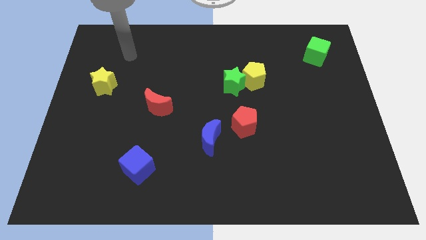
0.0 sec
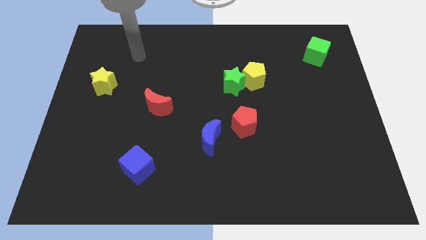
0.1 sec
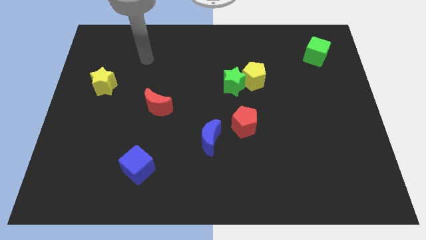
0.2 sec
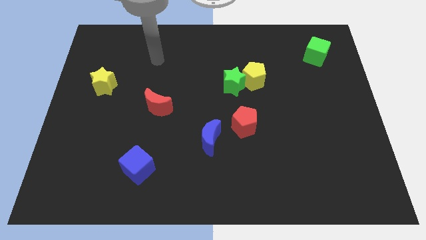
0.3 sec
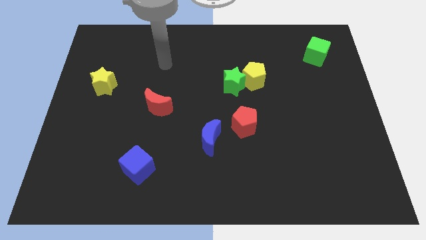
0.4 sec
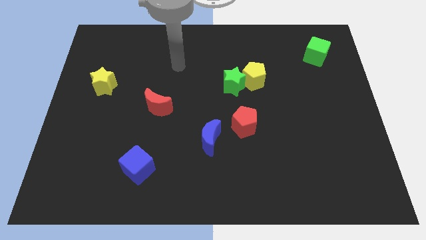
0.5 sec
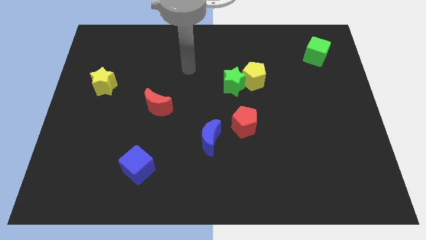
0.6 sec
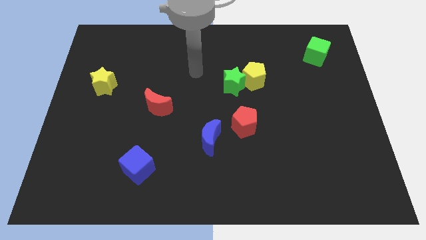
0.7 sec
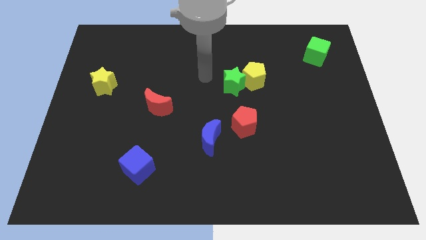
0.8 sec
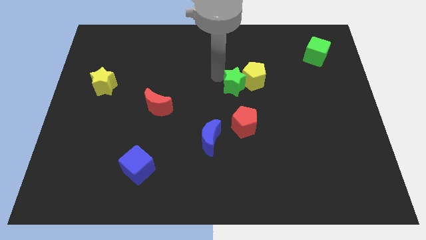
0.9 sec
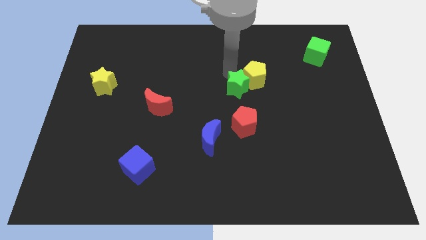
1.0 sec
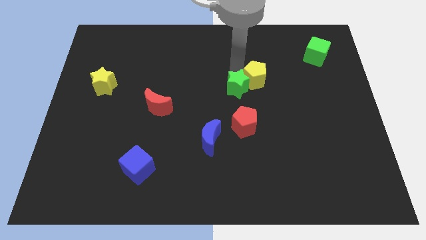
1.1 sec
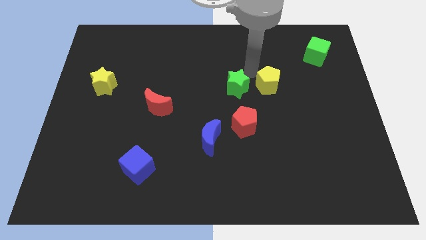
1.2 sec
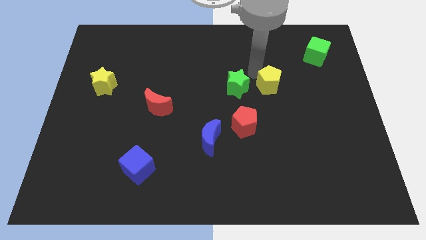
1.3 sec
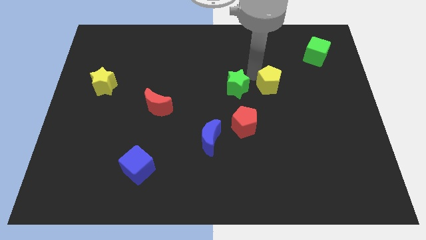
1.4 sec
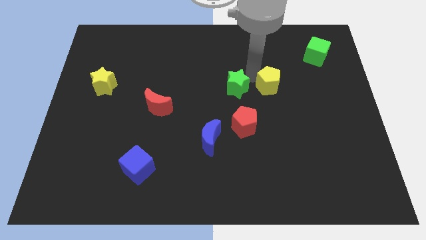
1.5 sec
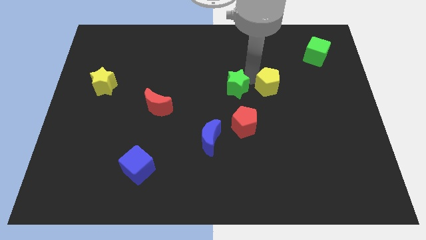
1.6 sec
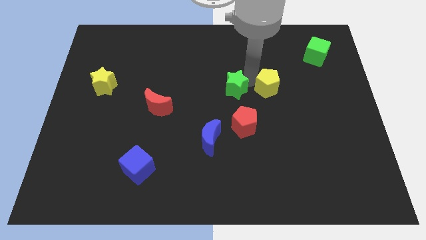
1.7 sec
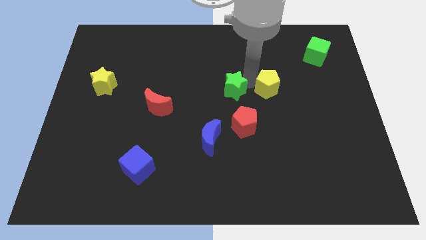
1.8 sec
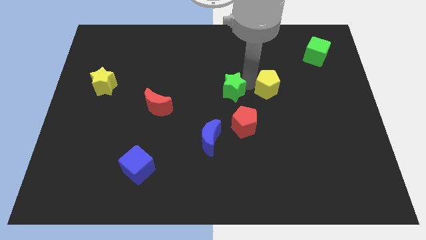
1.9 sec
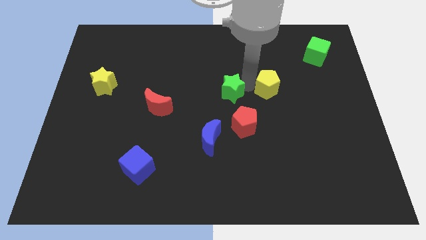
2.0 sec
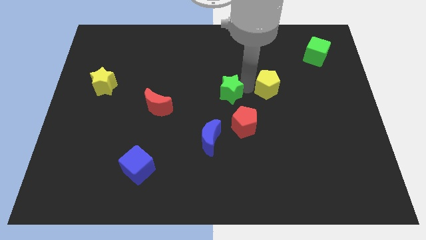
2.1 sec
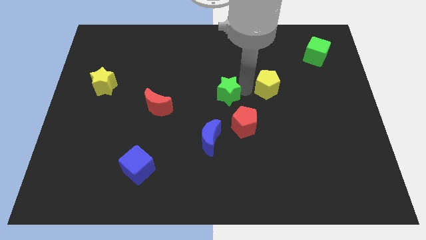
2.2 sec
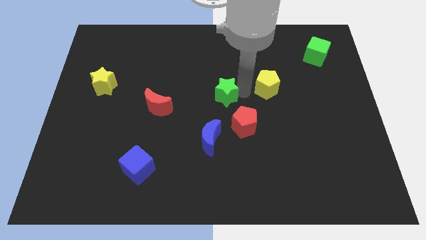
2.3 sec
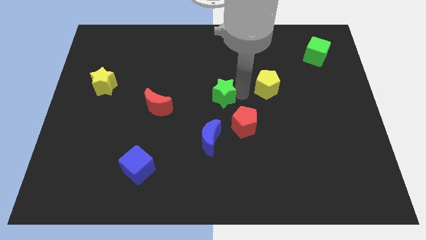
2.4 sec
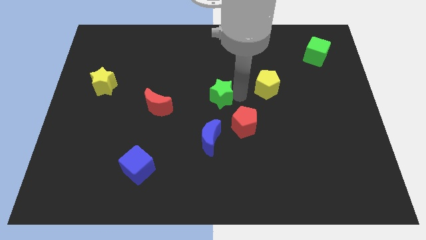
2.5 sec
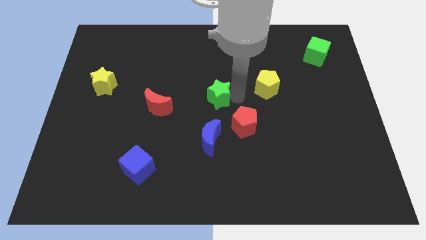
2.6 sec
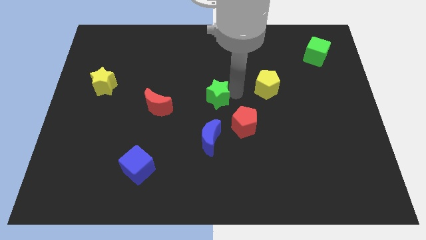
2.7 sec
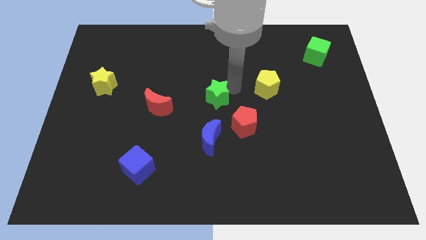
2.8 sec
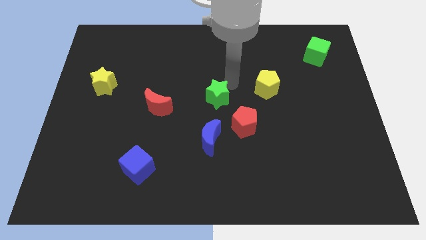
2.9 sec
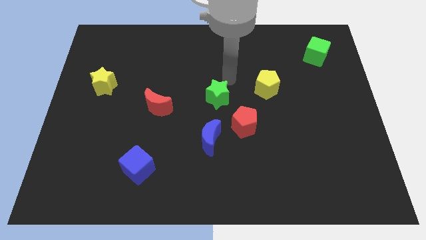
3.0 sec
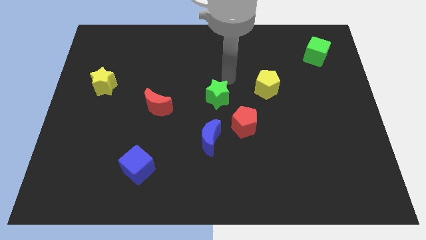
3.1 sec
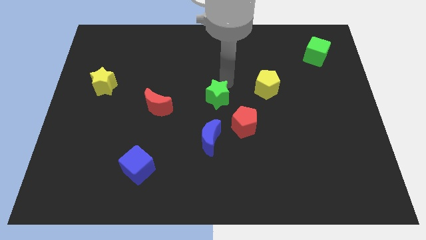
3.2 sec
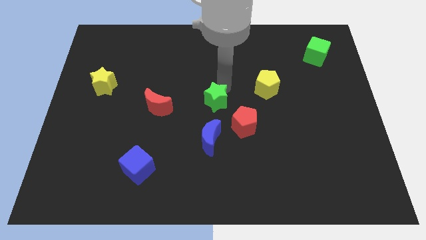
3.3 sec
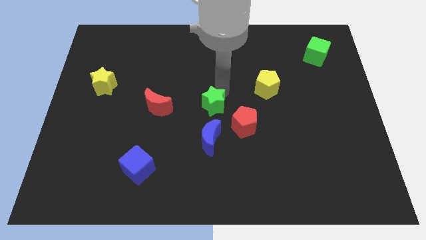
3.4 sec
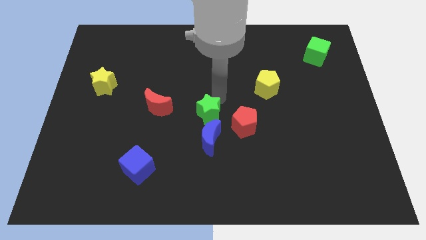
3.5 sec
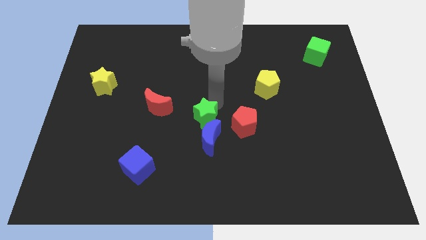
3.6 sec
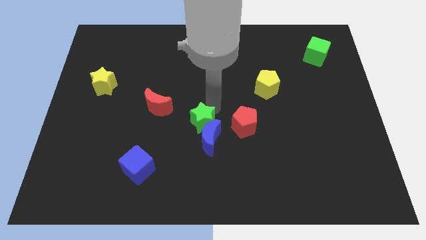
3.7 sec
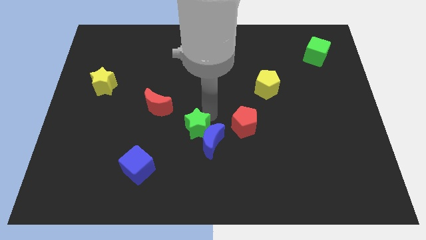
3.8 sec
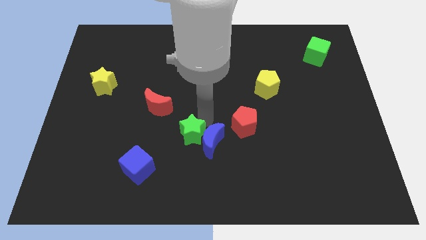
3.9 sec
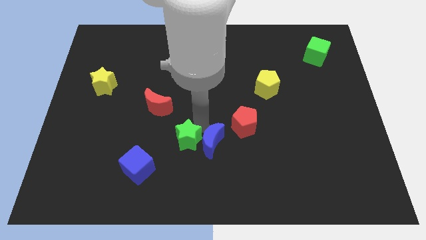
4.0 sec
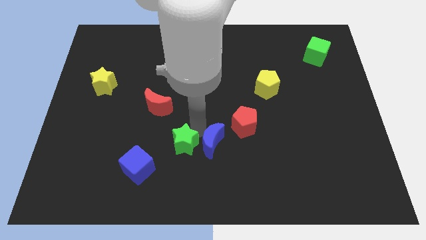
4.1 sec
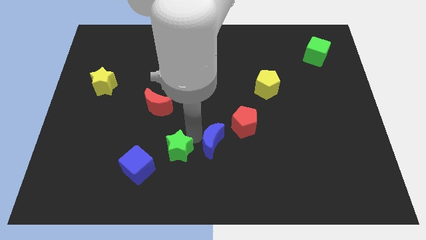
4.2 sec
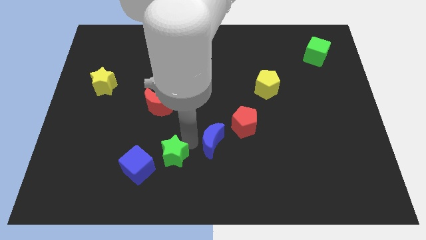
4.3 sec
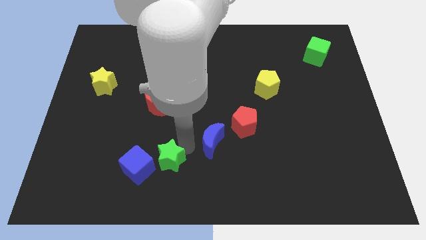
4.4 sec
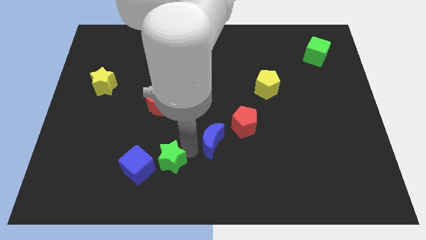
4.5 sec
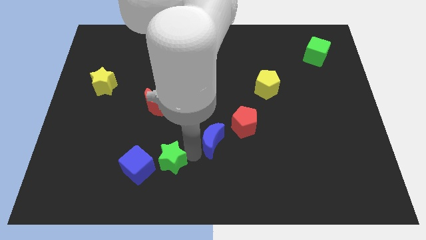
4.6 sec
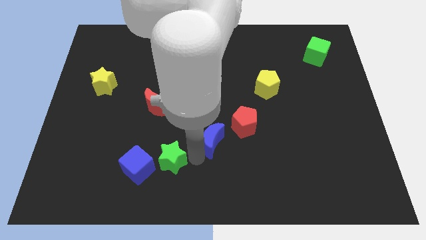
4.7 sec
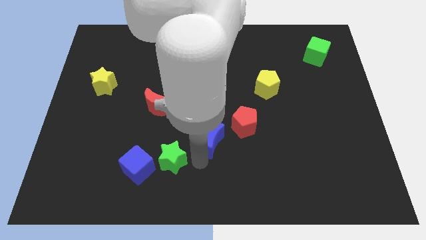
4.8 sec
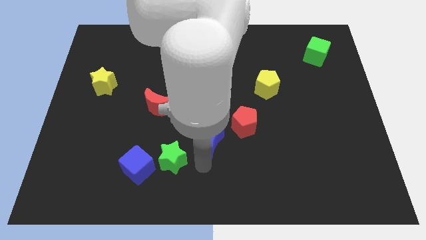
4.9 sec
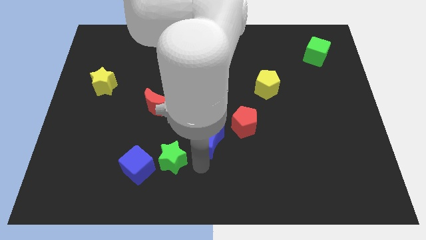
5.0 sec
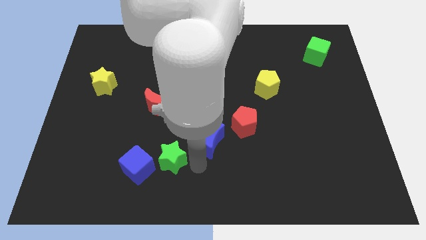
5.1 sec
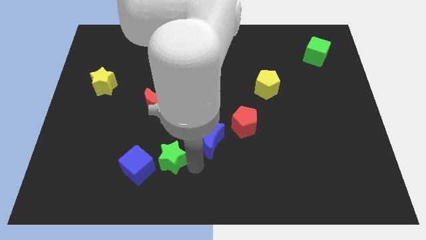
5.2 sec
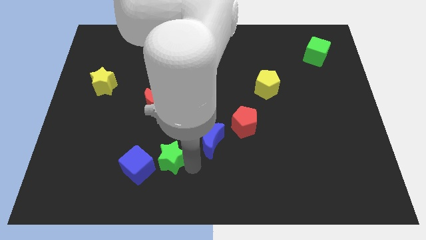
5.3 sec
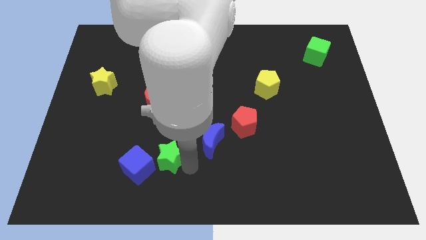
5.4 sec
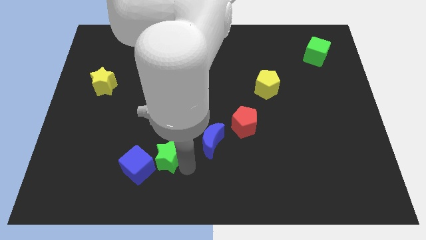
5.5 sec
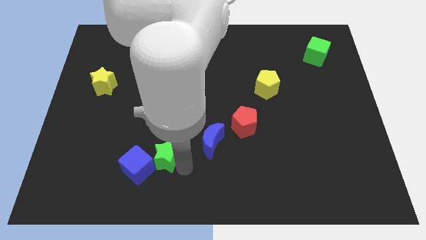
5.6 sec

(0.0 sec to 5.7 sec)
move the green star to the blue cube

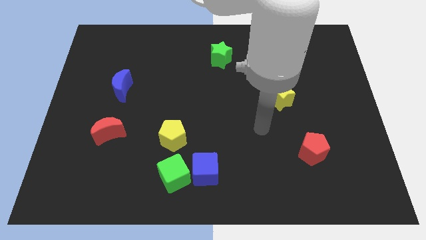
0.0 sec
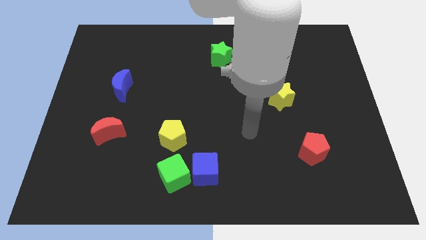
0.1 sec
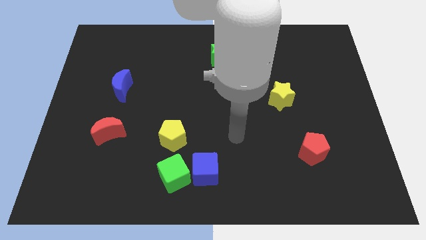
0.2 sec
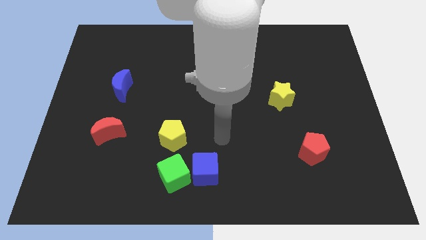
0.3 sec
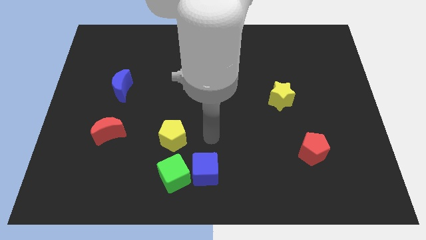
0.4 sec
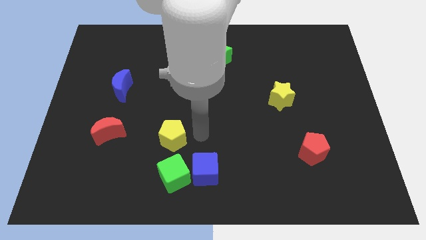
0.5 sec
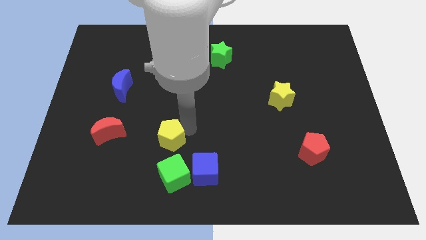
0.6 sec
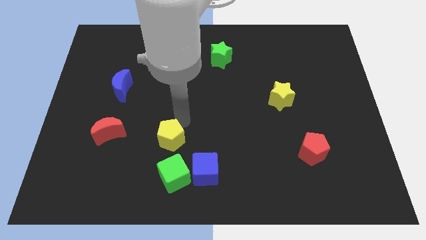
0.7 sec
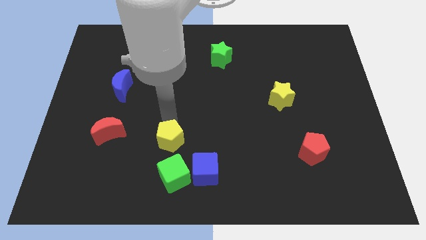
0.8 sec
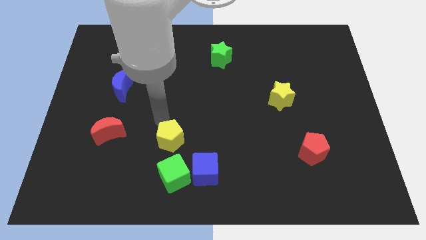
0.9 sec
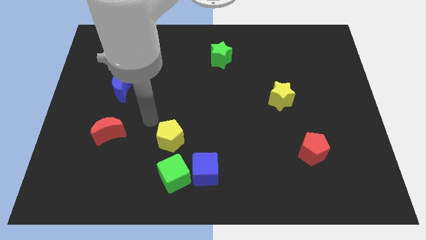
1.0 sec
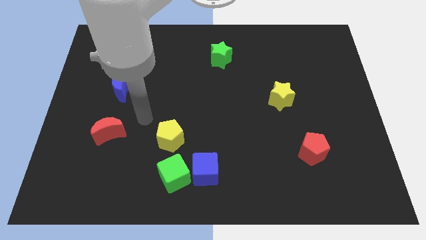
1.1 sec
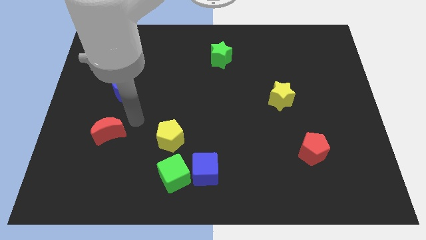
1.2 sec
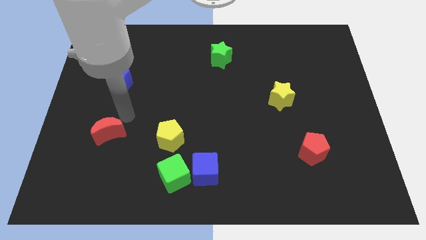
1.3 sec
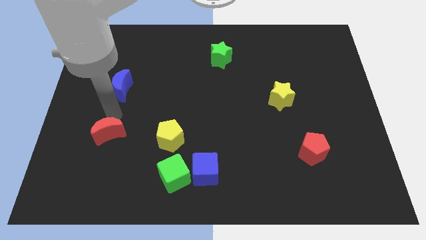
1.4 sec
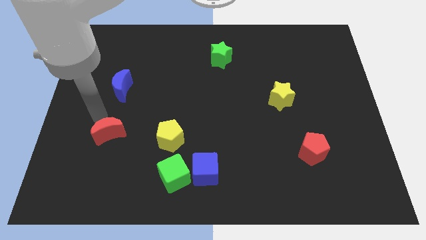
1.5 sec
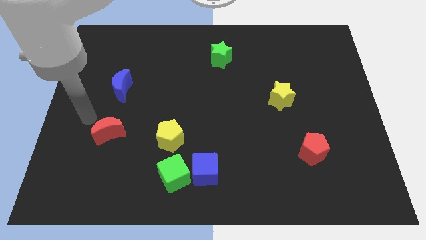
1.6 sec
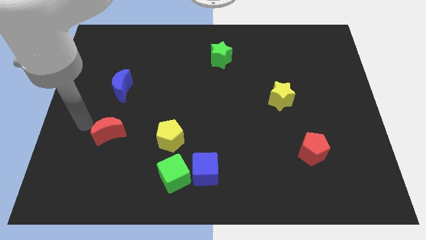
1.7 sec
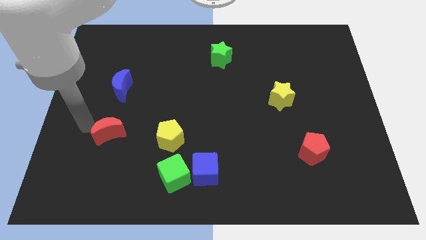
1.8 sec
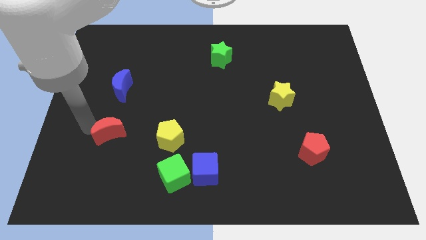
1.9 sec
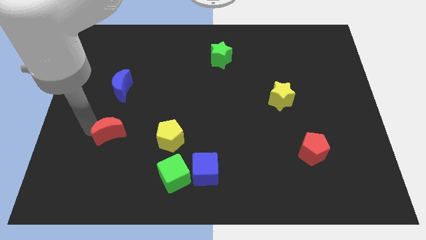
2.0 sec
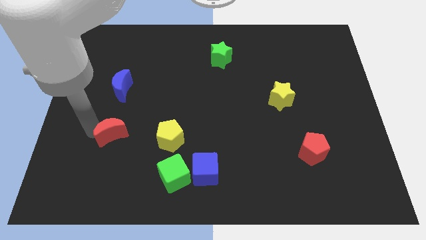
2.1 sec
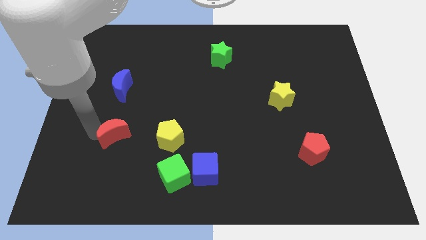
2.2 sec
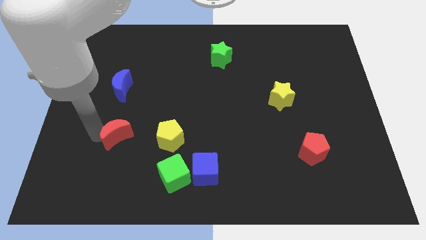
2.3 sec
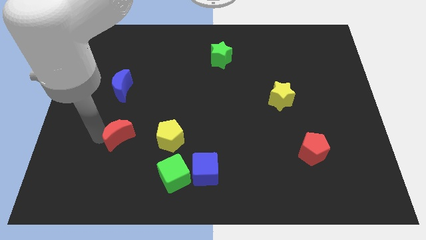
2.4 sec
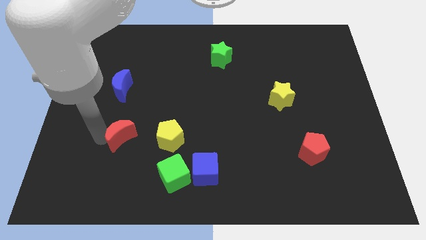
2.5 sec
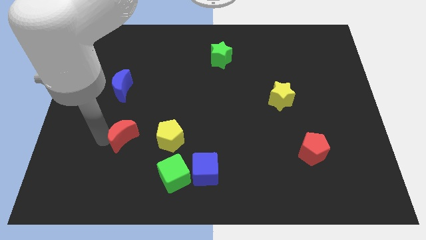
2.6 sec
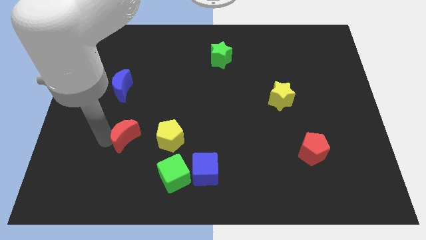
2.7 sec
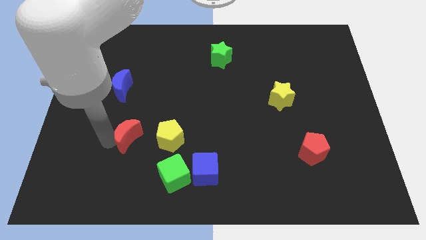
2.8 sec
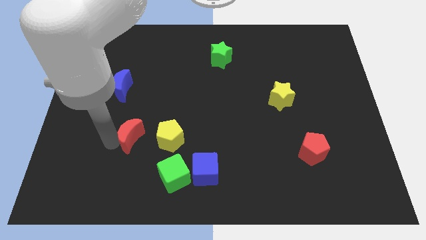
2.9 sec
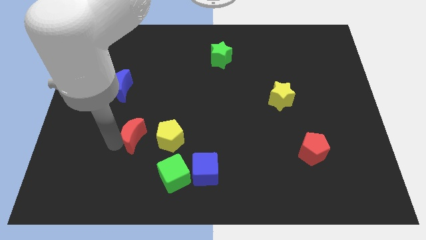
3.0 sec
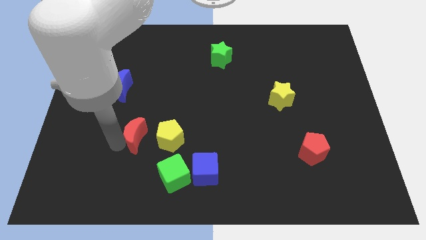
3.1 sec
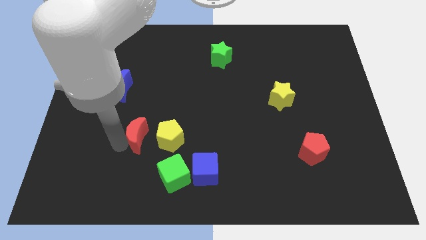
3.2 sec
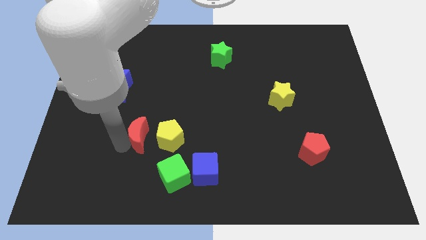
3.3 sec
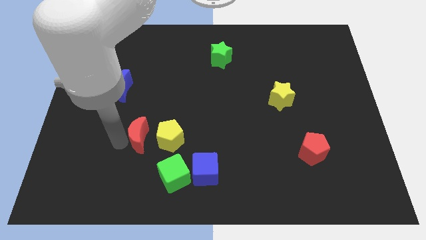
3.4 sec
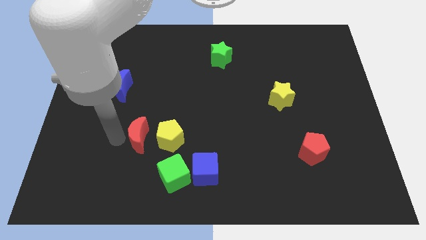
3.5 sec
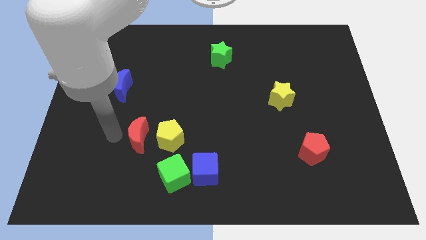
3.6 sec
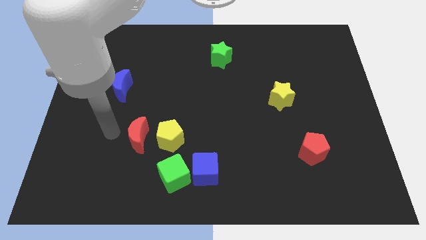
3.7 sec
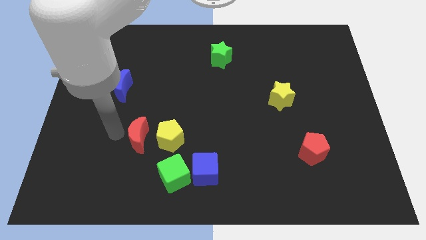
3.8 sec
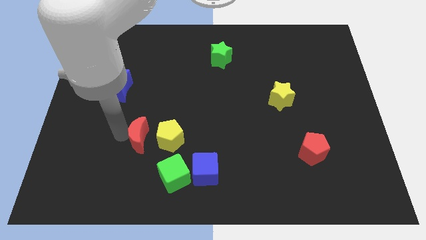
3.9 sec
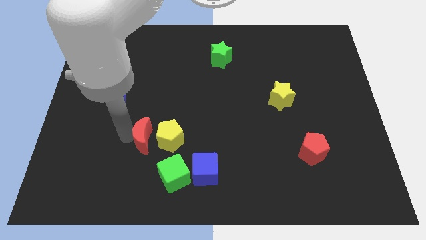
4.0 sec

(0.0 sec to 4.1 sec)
move the red moon close to the yellow pentagon
